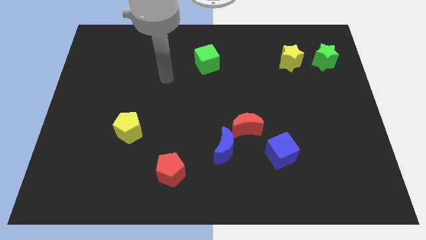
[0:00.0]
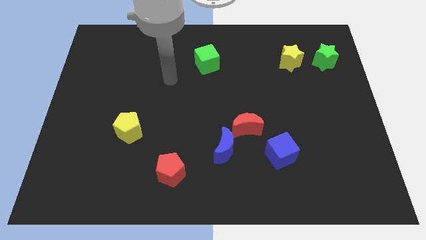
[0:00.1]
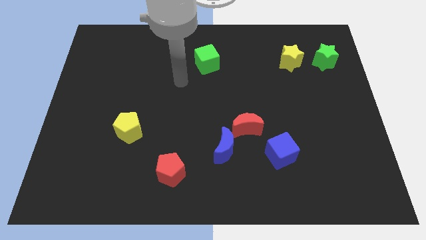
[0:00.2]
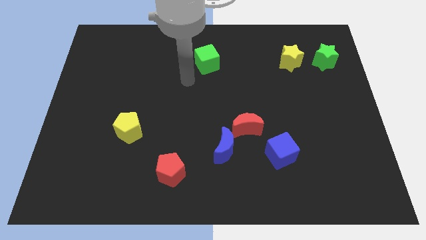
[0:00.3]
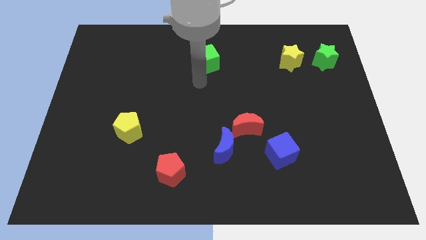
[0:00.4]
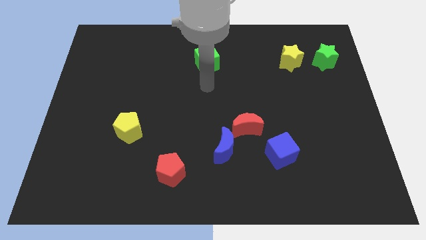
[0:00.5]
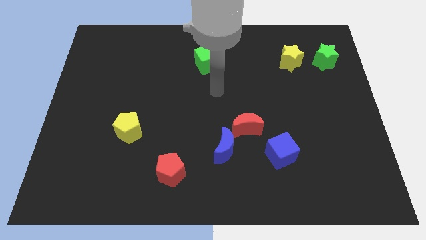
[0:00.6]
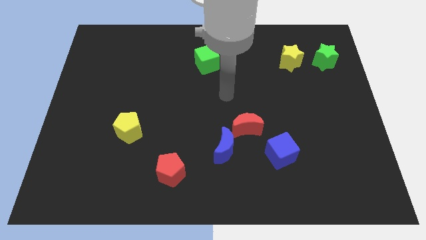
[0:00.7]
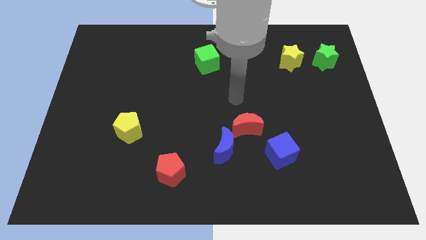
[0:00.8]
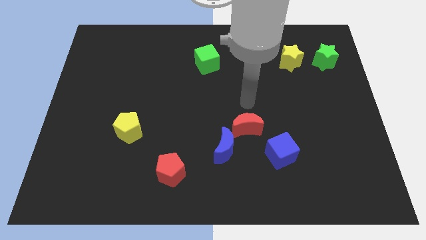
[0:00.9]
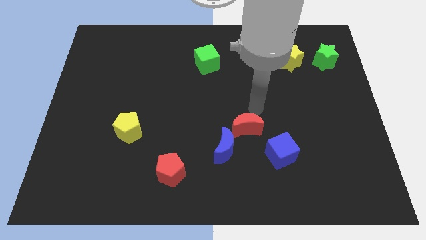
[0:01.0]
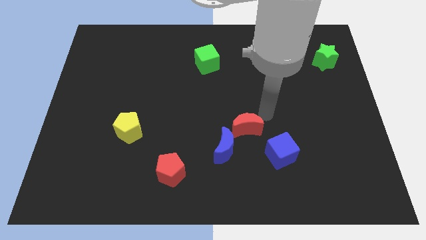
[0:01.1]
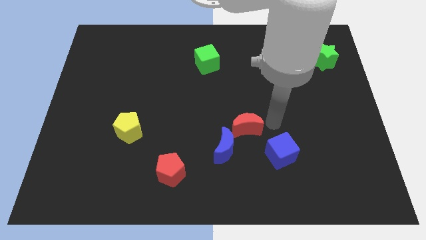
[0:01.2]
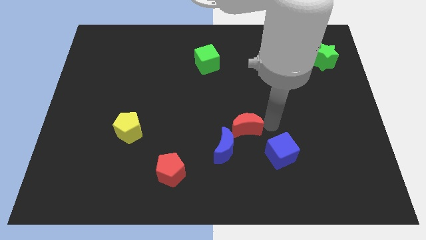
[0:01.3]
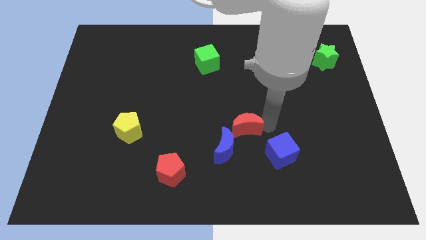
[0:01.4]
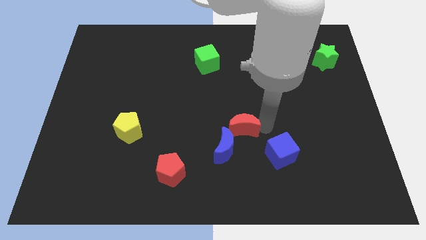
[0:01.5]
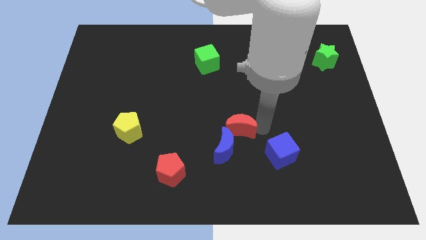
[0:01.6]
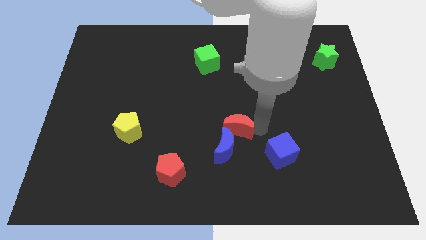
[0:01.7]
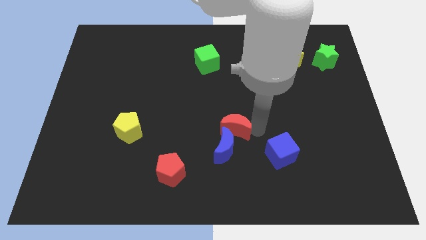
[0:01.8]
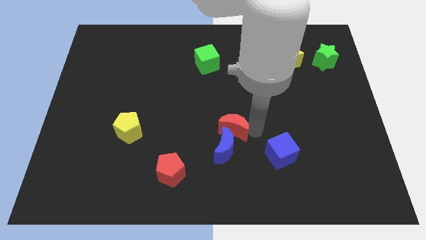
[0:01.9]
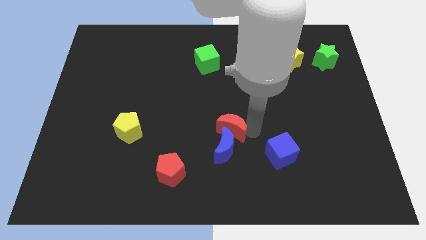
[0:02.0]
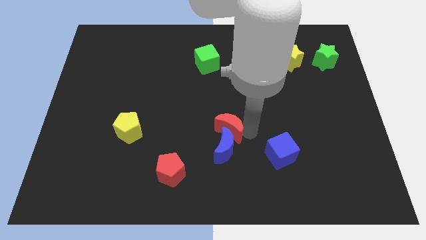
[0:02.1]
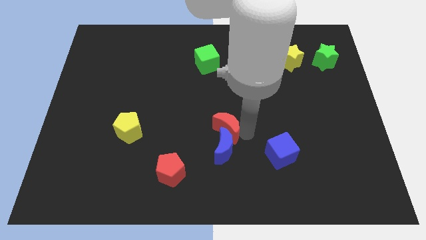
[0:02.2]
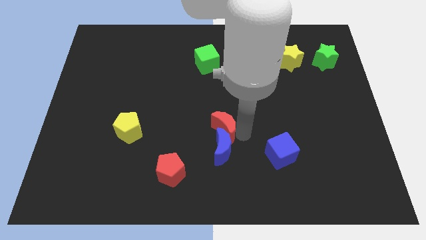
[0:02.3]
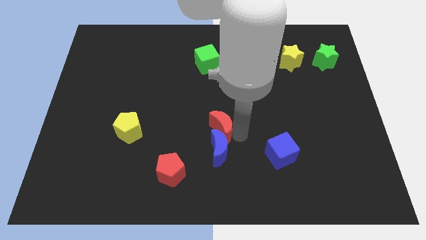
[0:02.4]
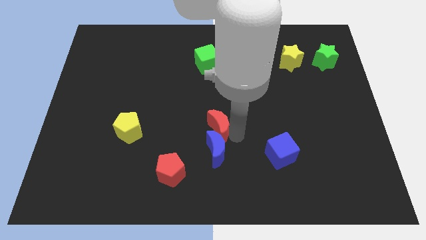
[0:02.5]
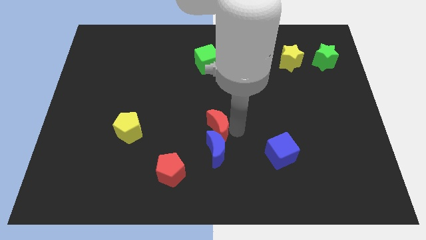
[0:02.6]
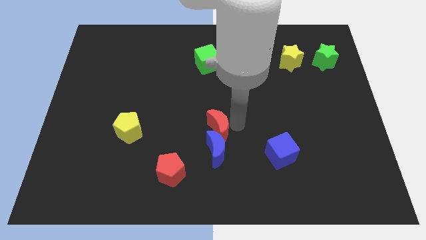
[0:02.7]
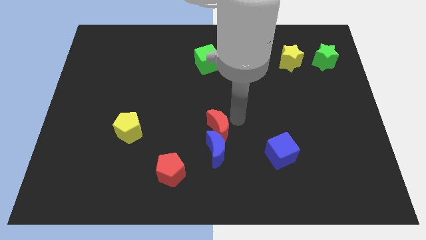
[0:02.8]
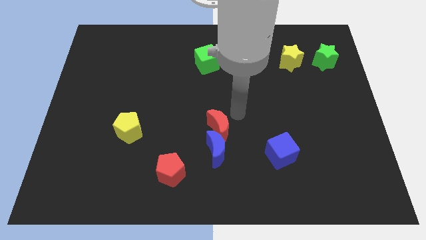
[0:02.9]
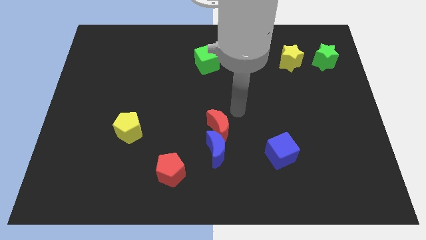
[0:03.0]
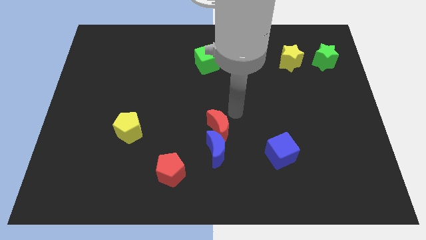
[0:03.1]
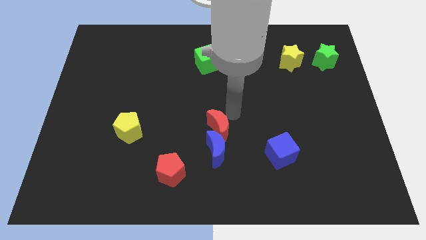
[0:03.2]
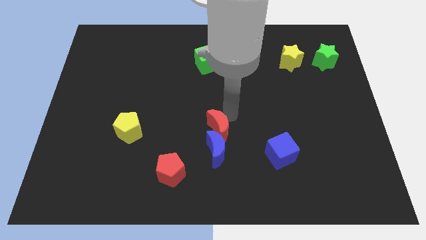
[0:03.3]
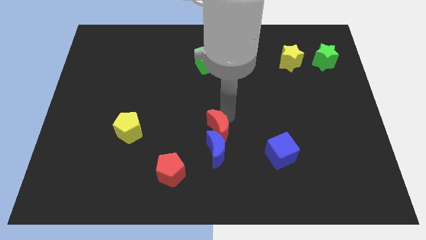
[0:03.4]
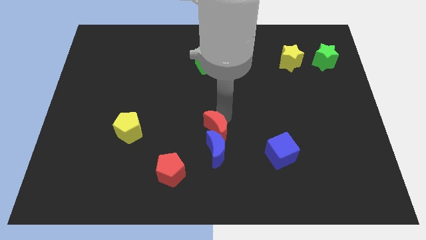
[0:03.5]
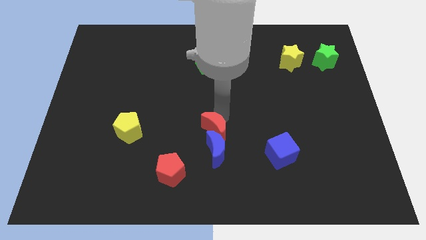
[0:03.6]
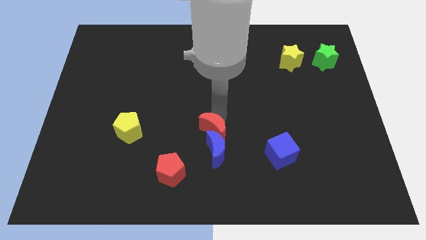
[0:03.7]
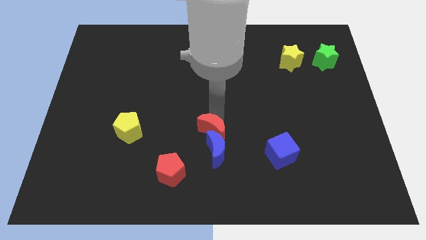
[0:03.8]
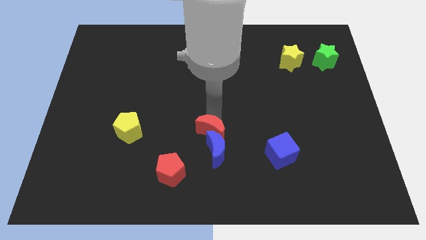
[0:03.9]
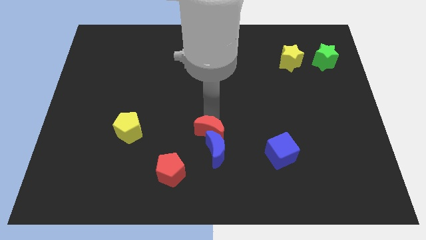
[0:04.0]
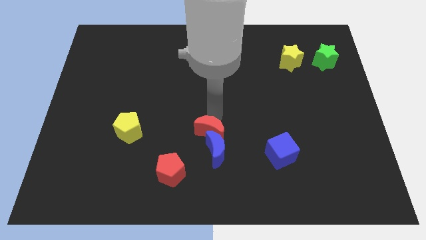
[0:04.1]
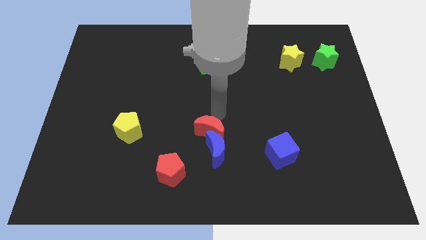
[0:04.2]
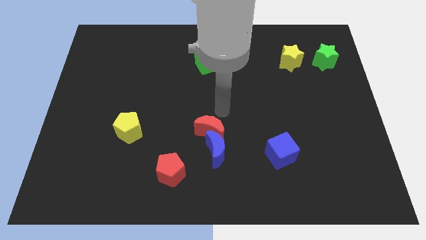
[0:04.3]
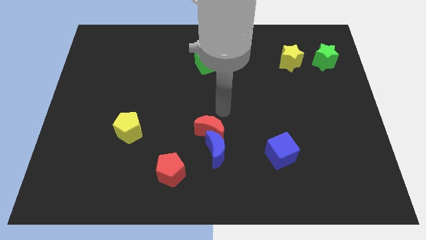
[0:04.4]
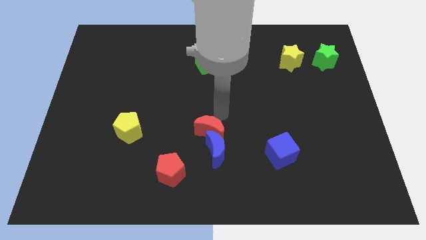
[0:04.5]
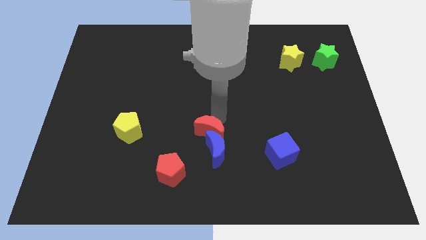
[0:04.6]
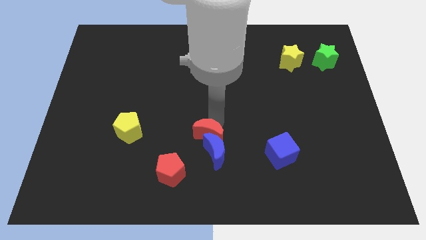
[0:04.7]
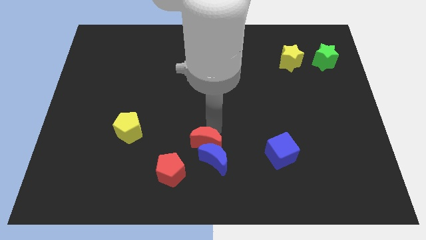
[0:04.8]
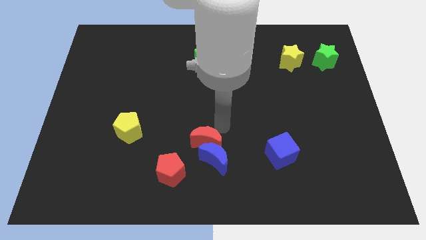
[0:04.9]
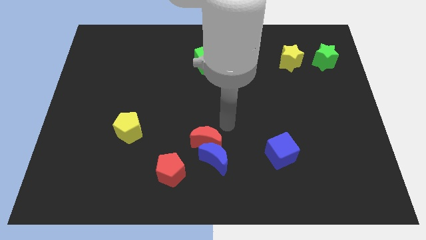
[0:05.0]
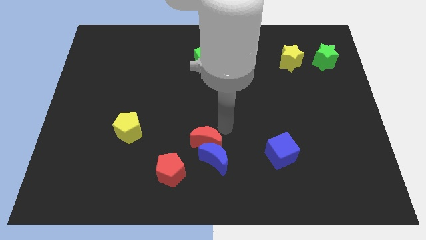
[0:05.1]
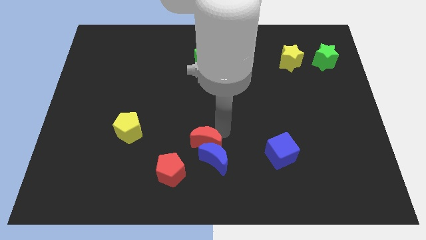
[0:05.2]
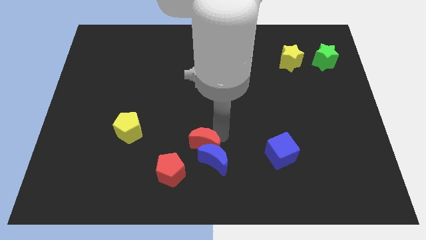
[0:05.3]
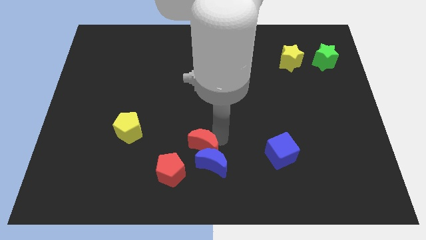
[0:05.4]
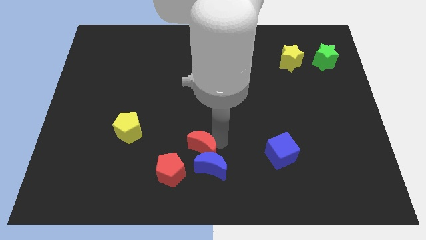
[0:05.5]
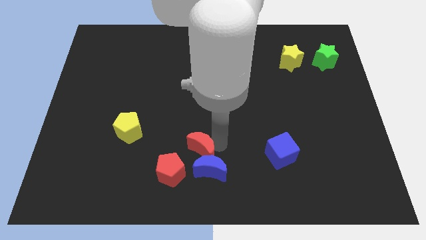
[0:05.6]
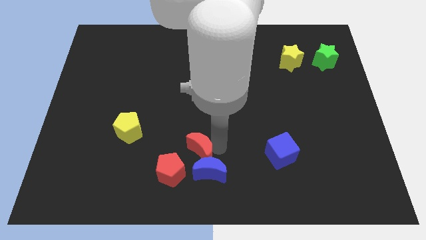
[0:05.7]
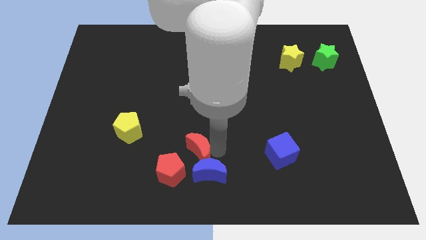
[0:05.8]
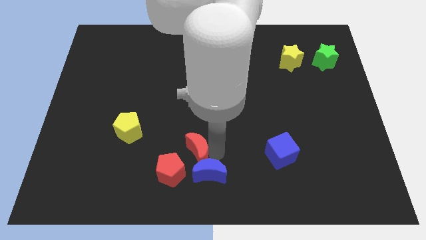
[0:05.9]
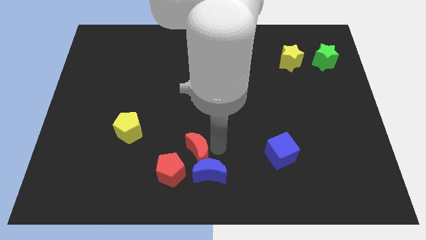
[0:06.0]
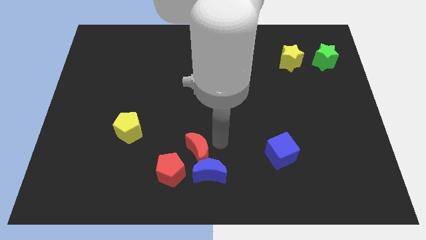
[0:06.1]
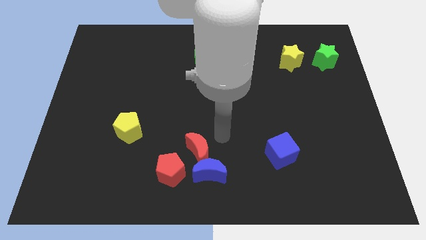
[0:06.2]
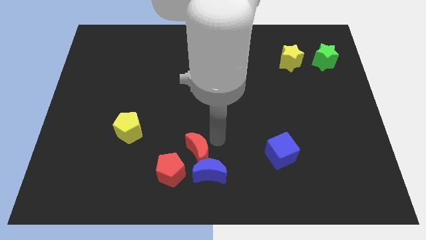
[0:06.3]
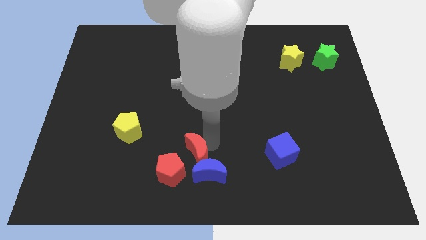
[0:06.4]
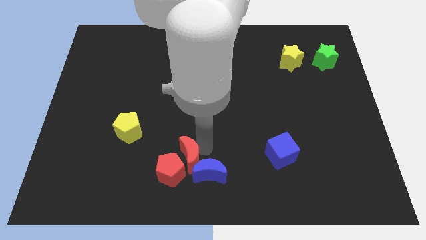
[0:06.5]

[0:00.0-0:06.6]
slide the red moon next to the red pentagon
